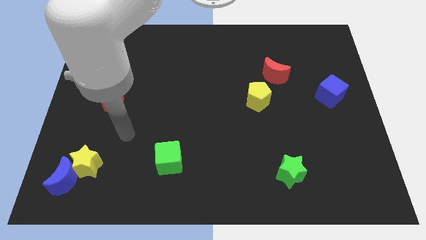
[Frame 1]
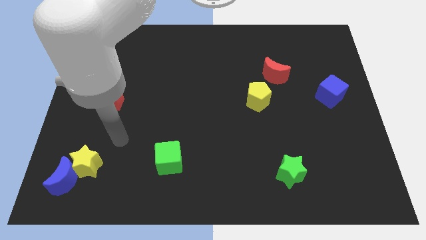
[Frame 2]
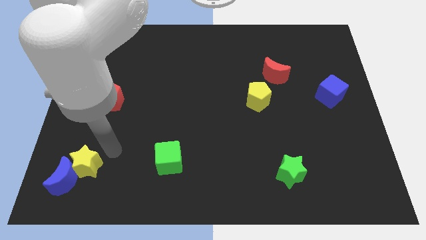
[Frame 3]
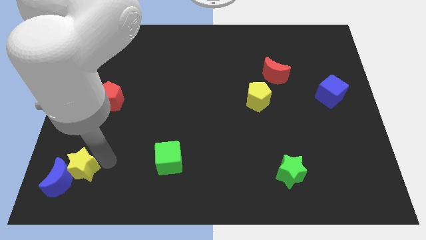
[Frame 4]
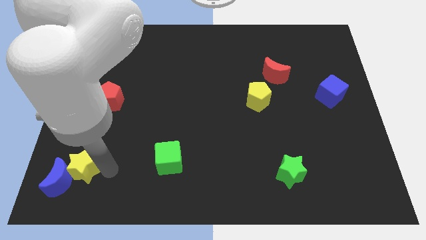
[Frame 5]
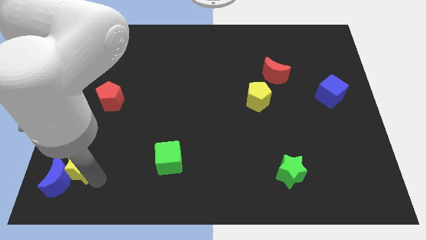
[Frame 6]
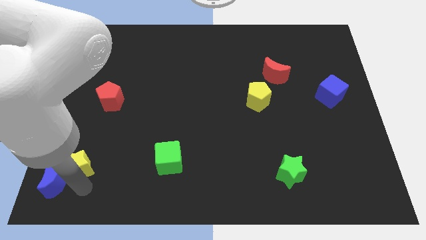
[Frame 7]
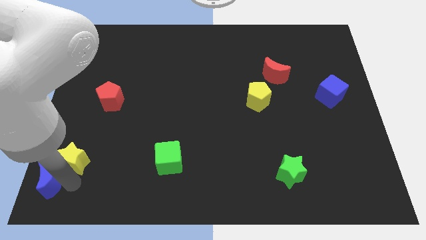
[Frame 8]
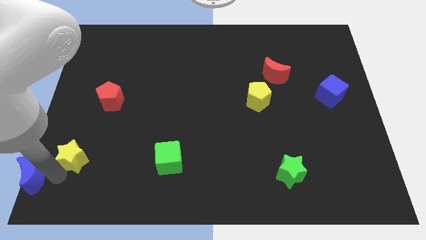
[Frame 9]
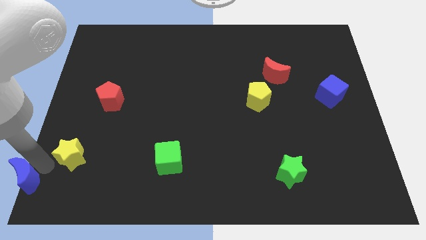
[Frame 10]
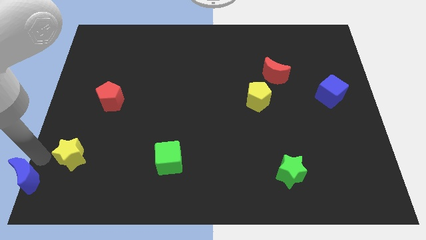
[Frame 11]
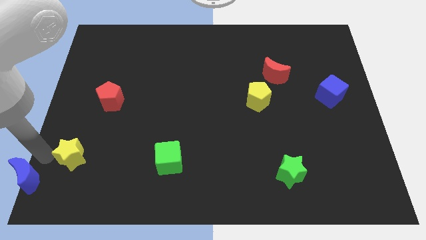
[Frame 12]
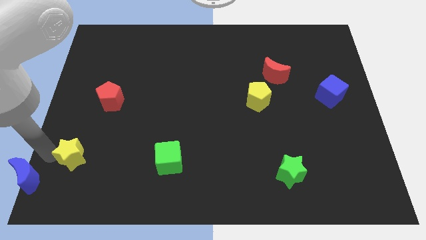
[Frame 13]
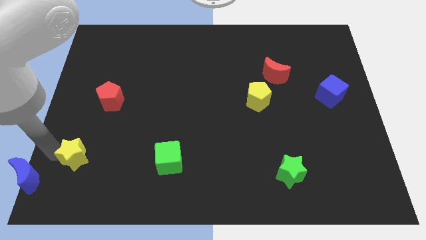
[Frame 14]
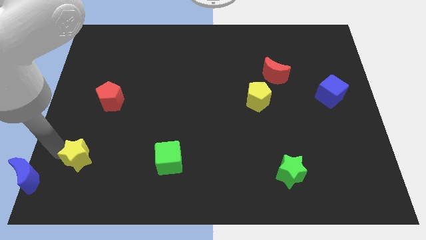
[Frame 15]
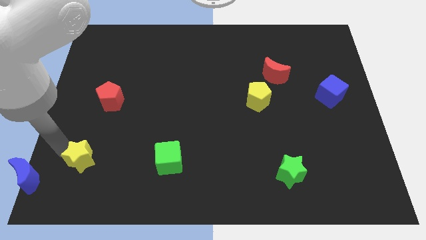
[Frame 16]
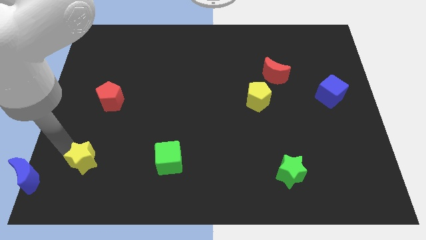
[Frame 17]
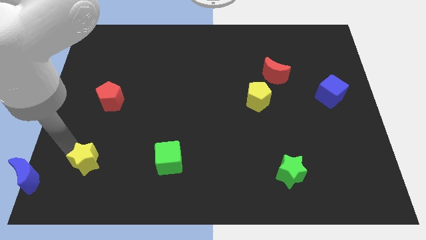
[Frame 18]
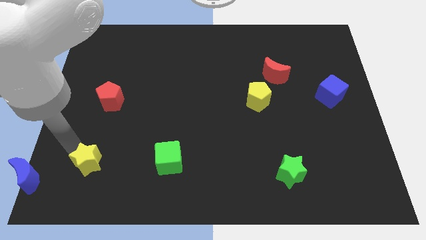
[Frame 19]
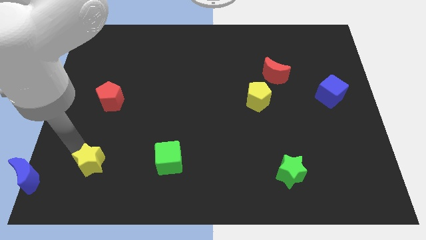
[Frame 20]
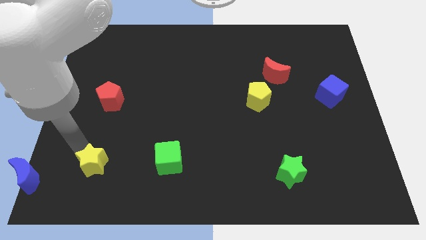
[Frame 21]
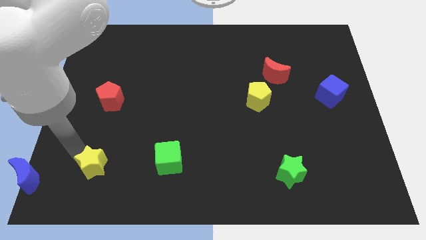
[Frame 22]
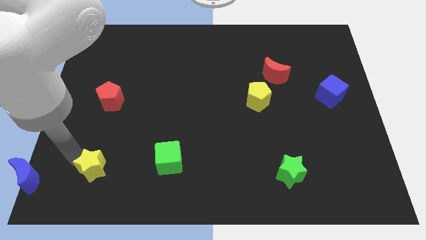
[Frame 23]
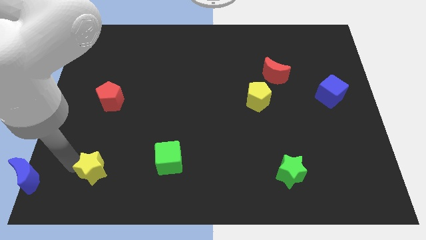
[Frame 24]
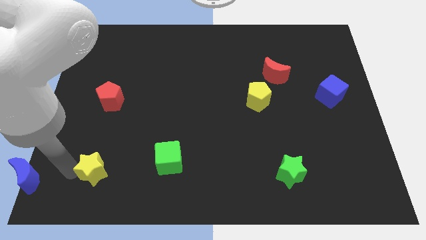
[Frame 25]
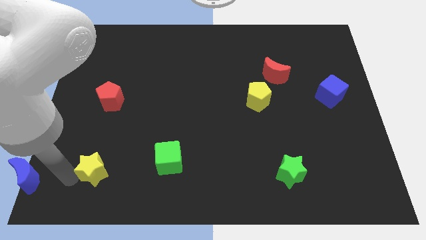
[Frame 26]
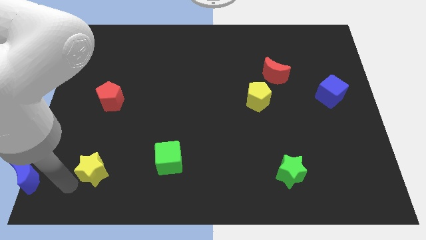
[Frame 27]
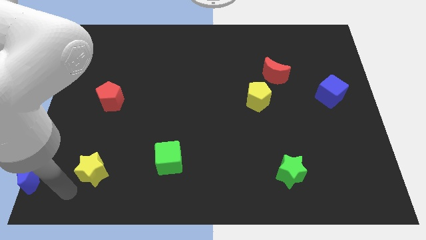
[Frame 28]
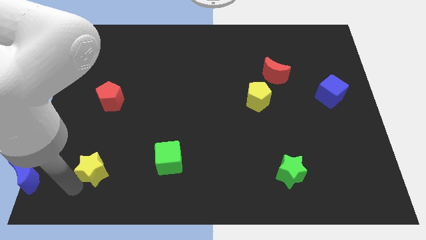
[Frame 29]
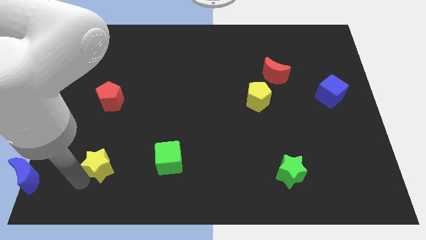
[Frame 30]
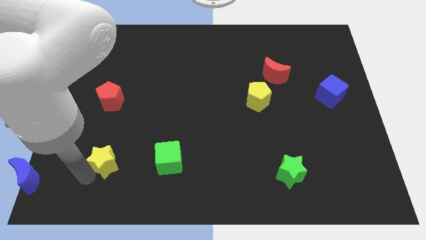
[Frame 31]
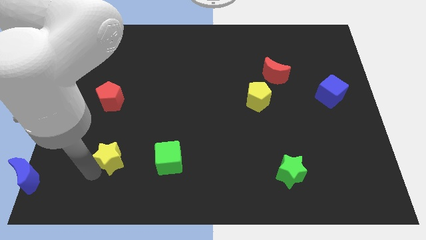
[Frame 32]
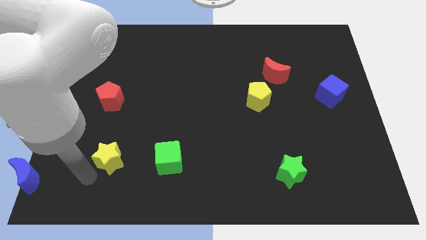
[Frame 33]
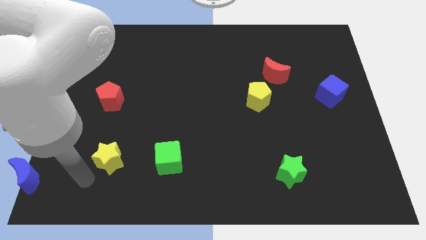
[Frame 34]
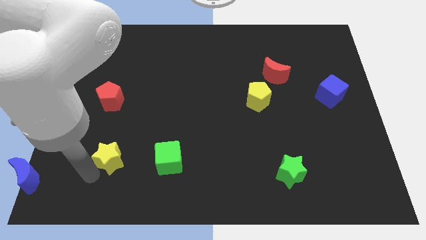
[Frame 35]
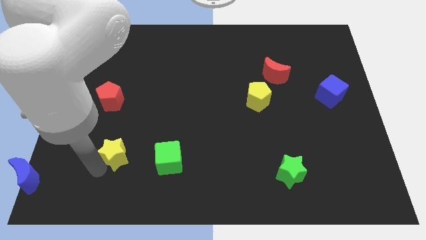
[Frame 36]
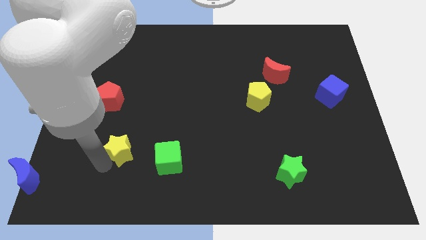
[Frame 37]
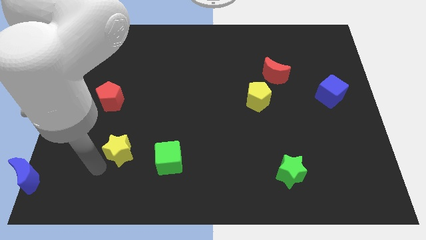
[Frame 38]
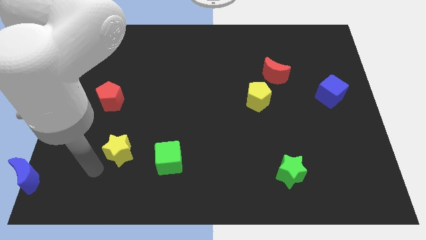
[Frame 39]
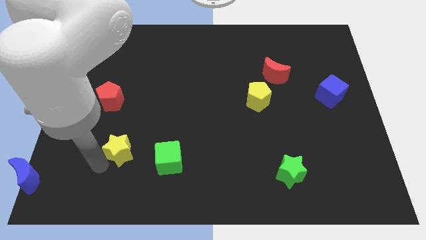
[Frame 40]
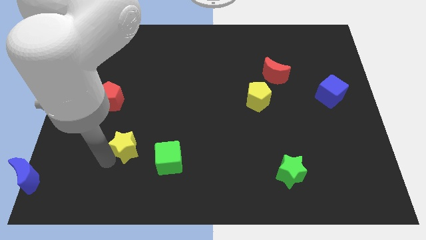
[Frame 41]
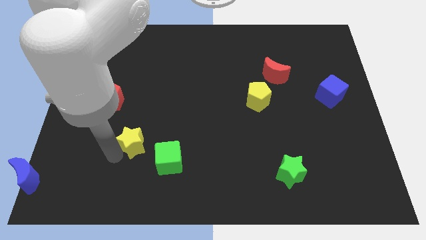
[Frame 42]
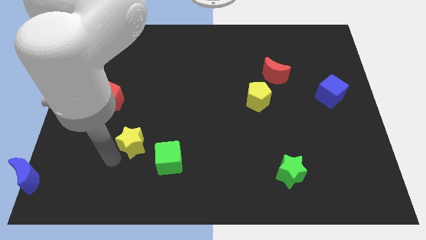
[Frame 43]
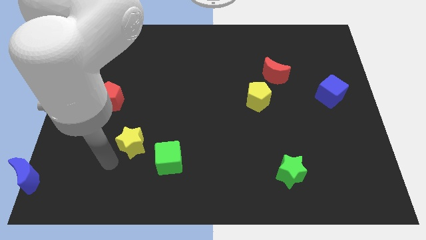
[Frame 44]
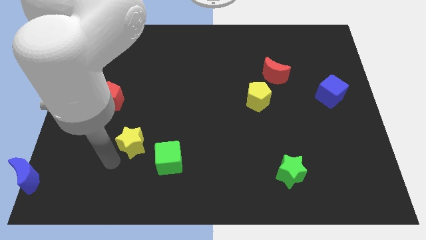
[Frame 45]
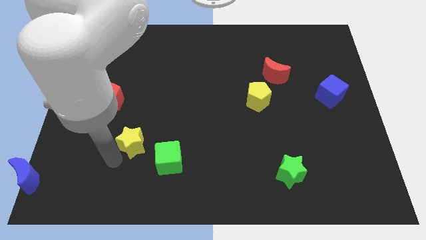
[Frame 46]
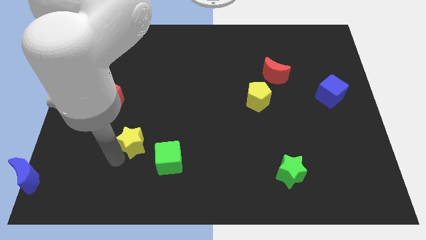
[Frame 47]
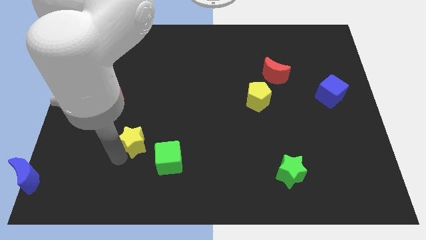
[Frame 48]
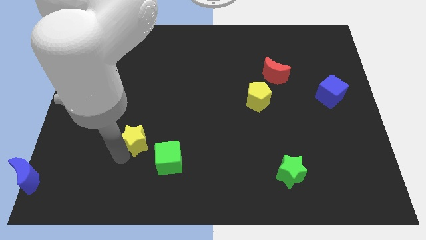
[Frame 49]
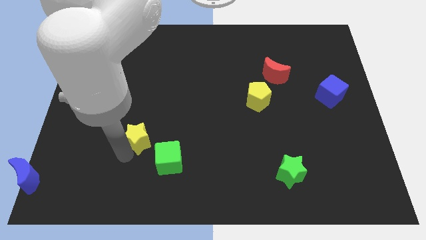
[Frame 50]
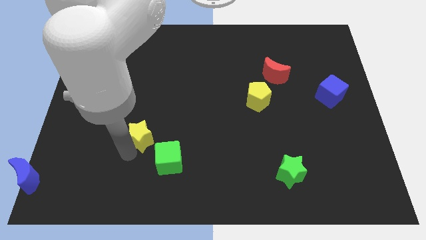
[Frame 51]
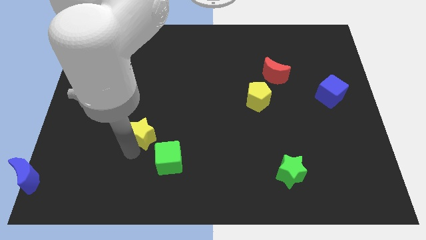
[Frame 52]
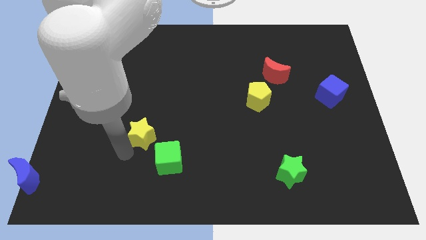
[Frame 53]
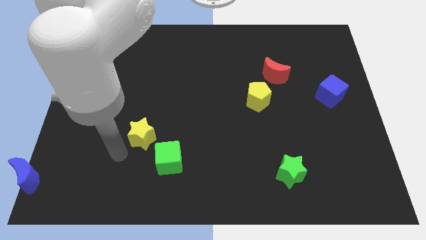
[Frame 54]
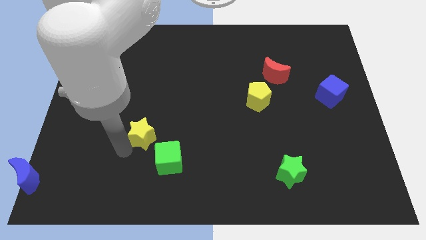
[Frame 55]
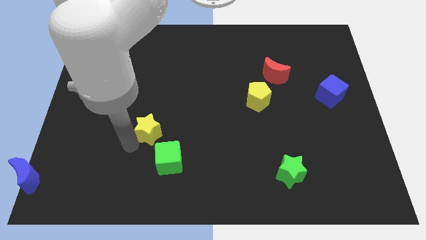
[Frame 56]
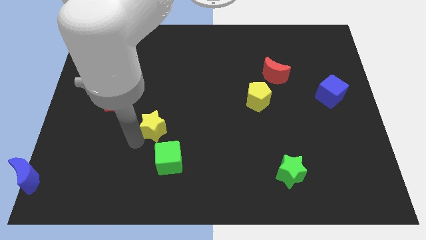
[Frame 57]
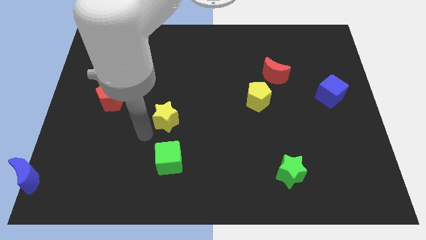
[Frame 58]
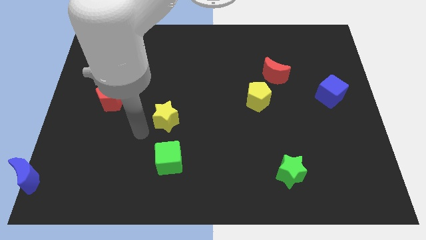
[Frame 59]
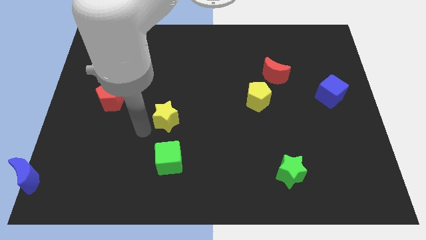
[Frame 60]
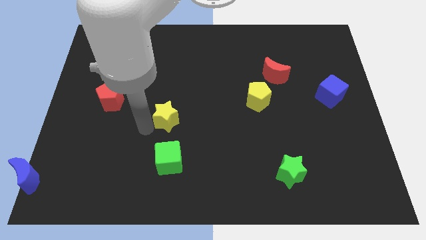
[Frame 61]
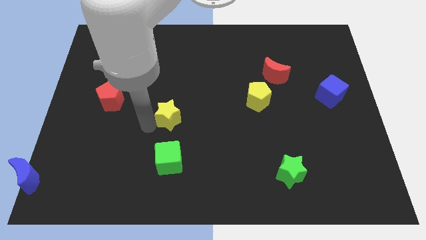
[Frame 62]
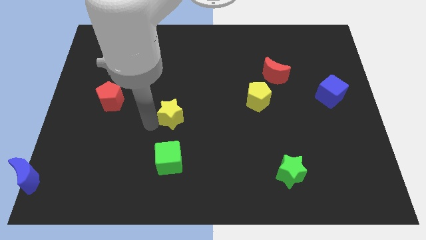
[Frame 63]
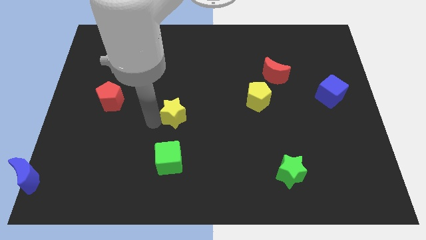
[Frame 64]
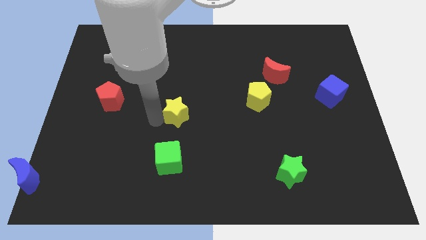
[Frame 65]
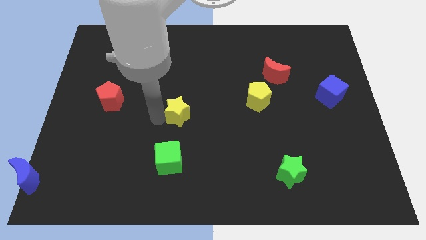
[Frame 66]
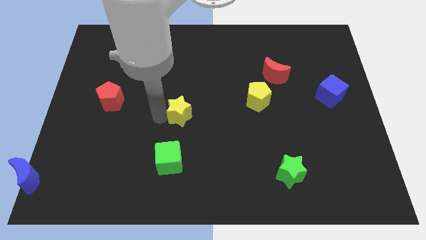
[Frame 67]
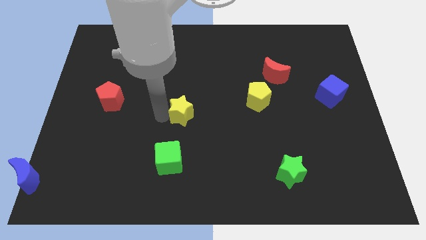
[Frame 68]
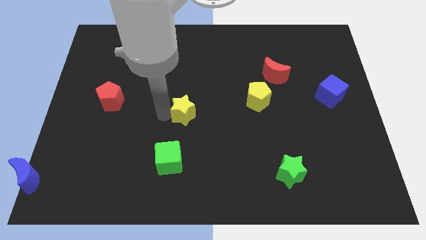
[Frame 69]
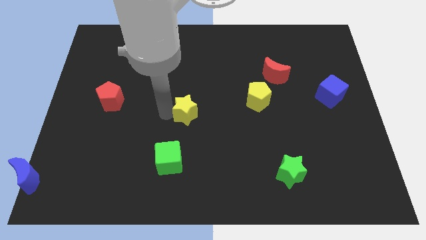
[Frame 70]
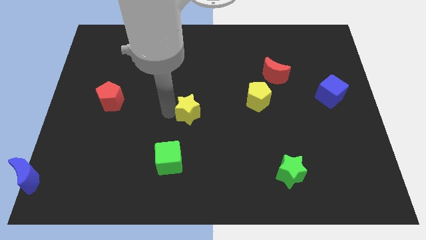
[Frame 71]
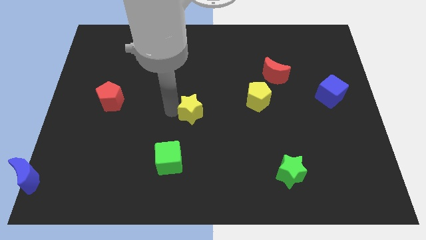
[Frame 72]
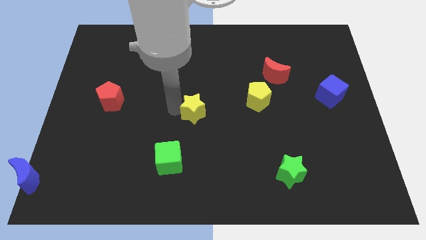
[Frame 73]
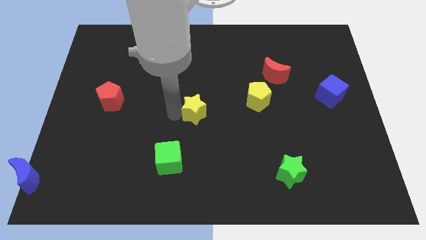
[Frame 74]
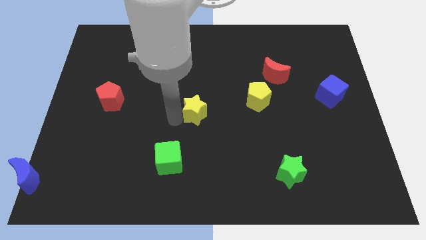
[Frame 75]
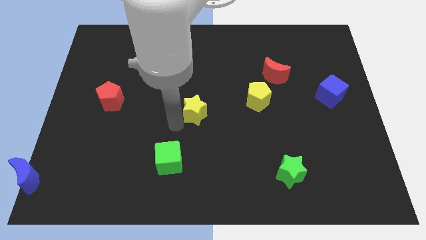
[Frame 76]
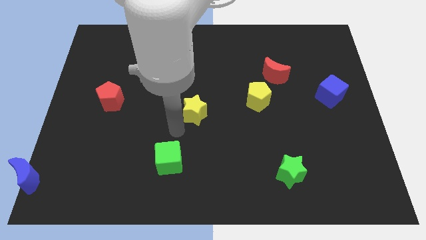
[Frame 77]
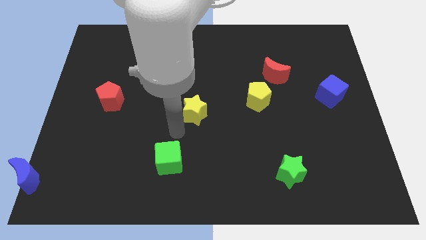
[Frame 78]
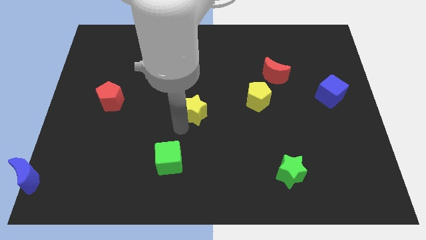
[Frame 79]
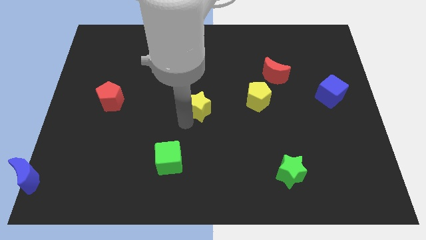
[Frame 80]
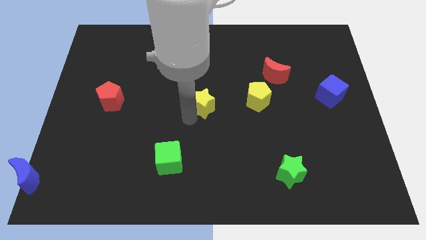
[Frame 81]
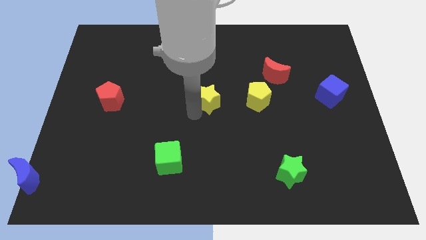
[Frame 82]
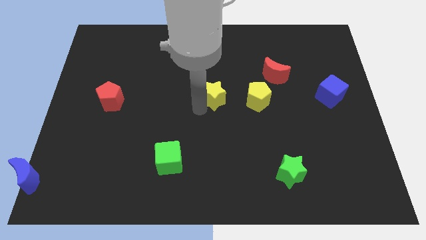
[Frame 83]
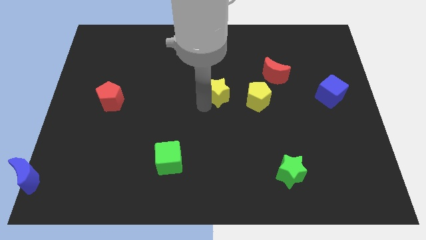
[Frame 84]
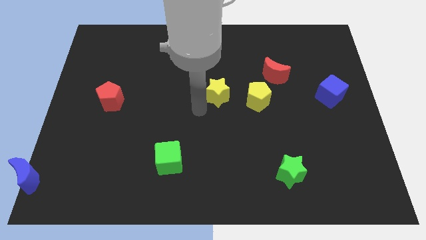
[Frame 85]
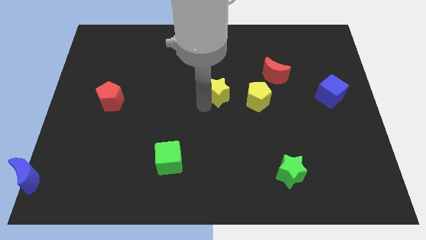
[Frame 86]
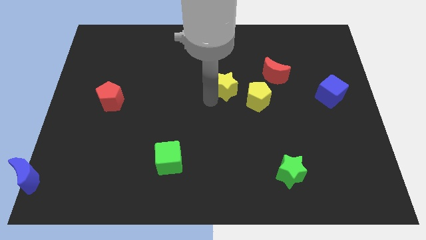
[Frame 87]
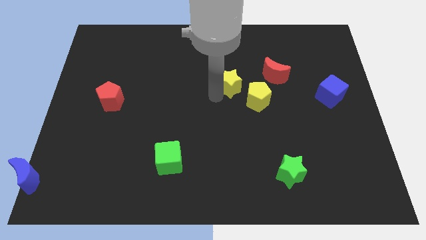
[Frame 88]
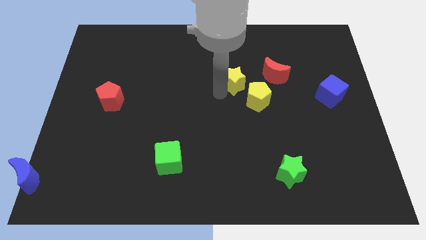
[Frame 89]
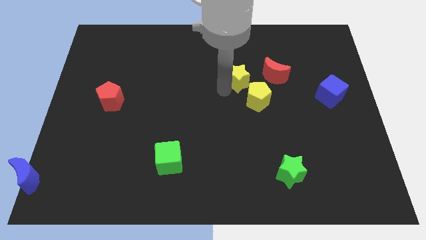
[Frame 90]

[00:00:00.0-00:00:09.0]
put the yellow star to the top side of the yellow pentagon
